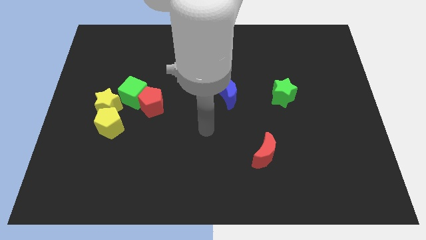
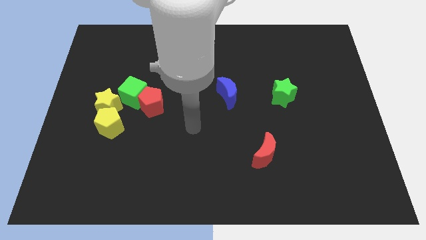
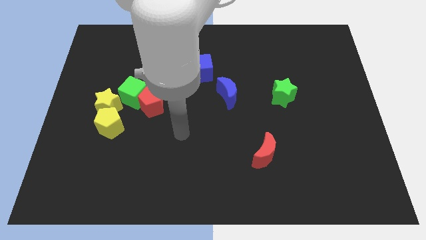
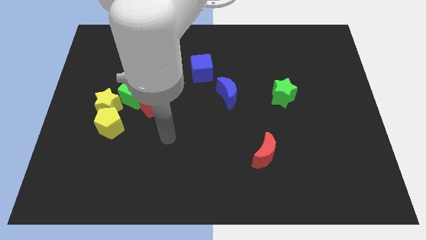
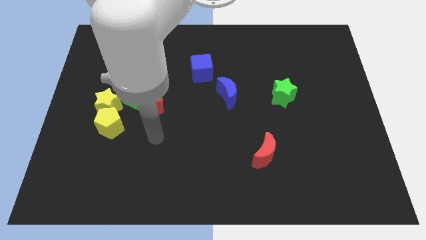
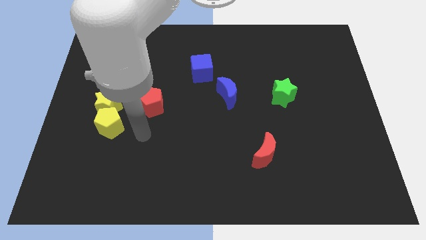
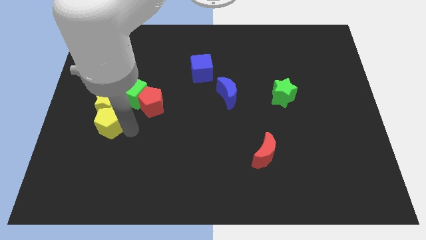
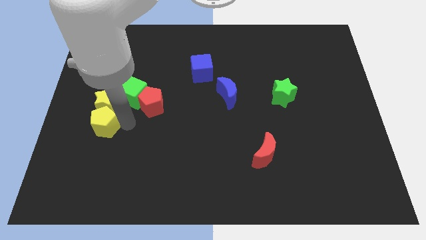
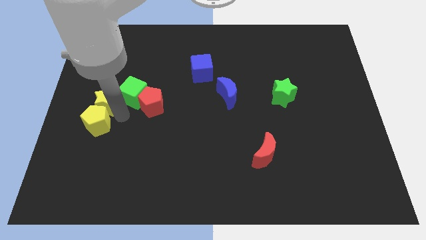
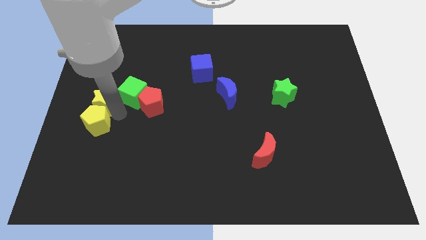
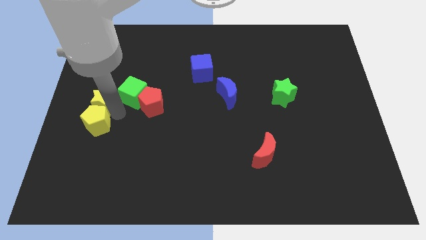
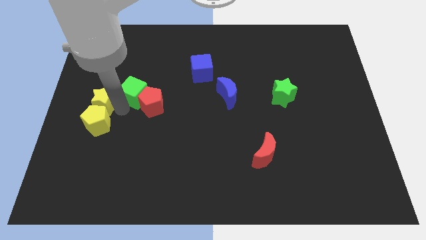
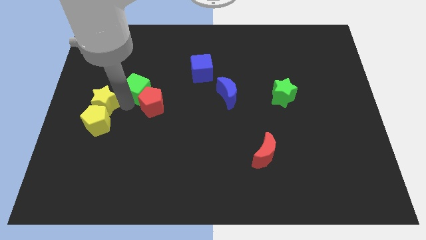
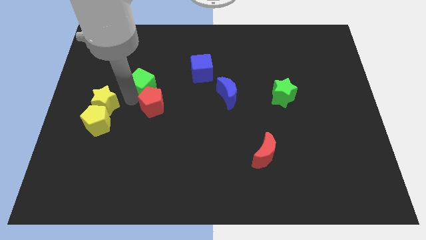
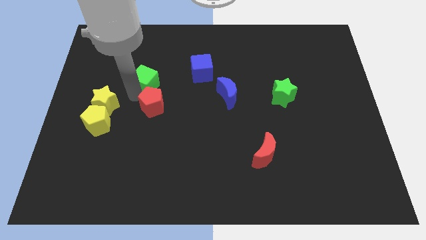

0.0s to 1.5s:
pull the green cube apart from the group

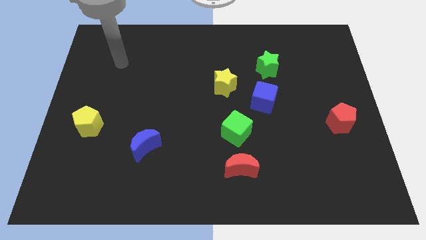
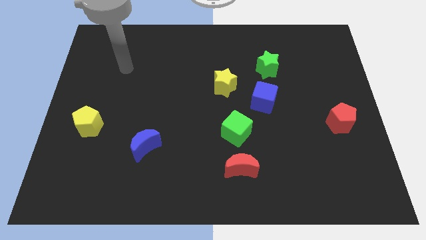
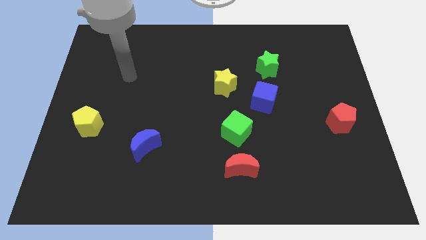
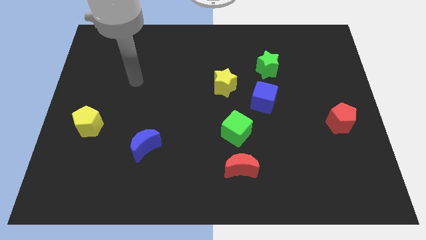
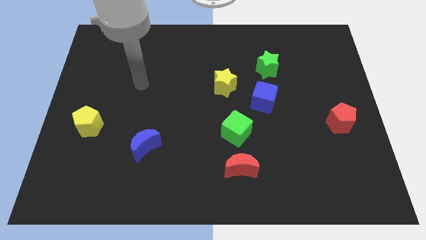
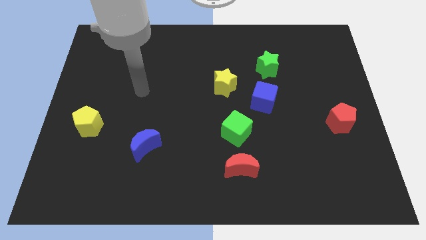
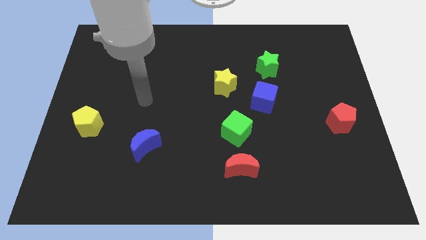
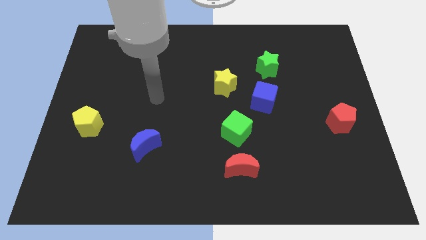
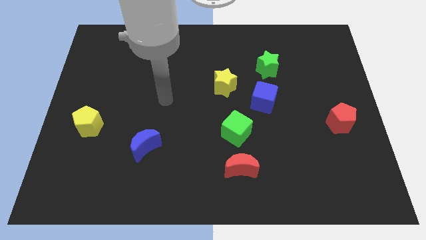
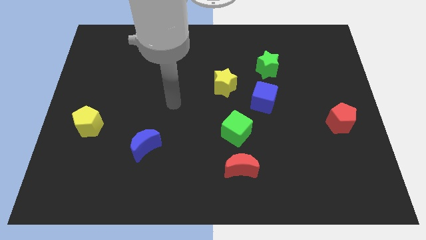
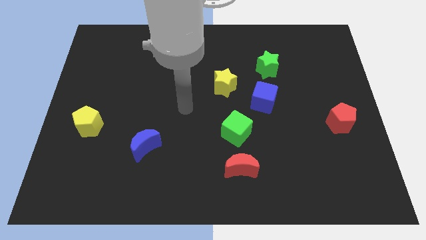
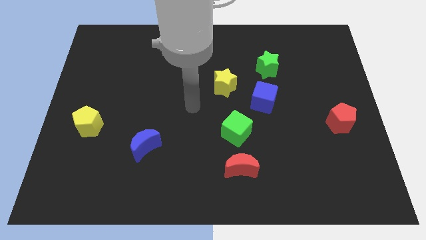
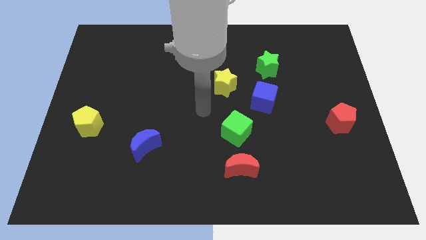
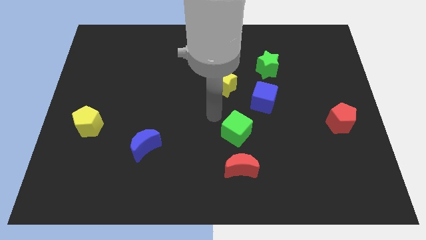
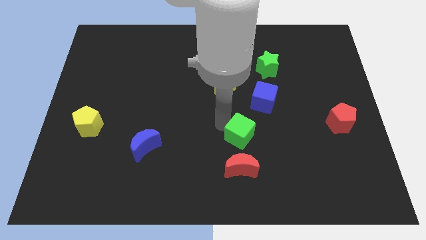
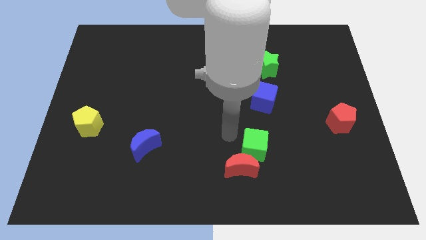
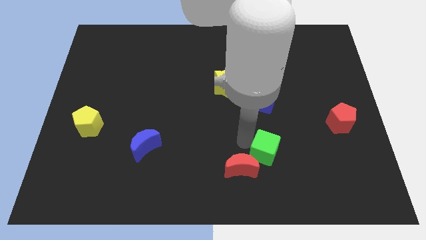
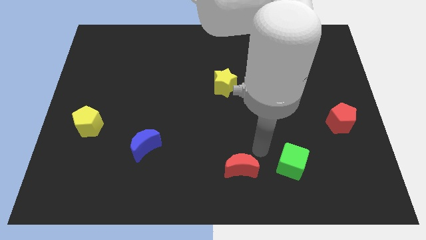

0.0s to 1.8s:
move the red moon away from the green cube

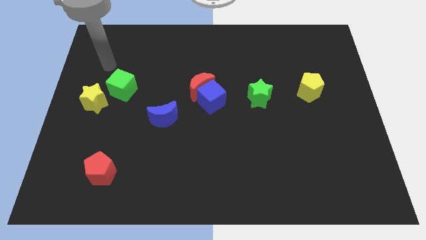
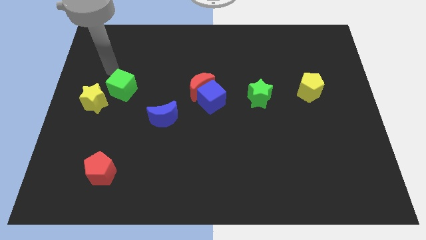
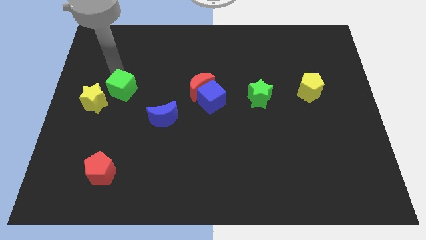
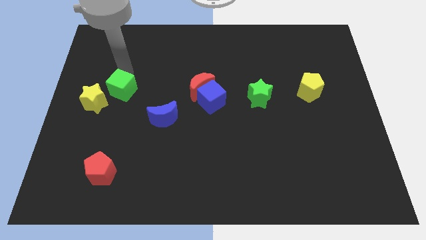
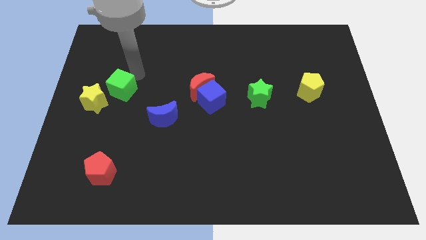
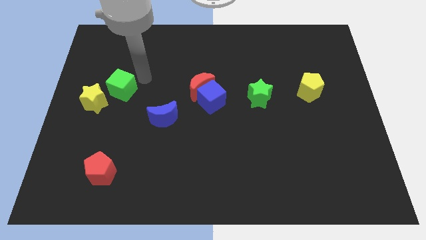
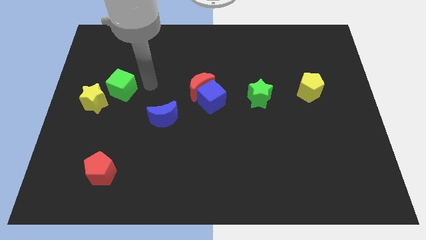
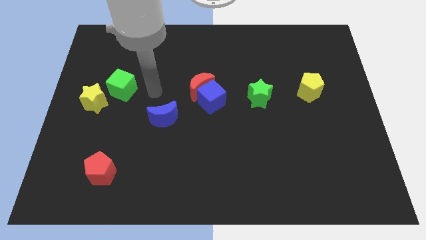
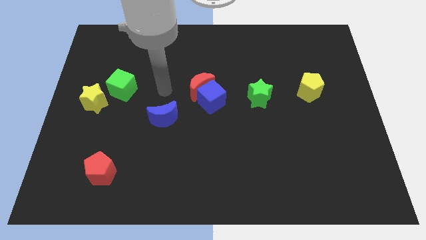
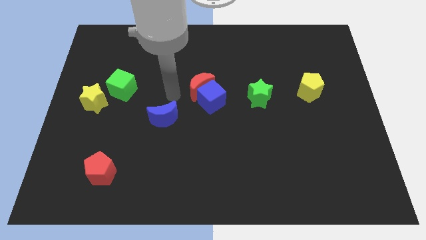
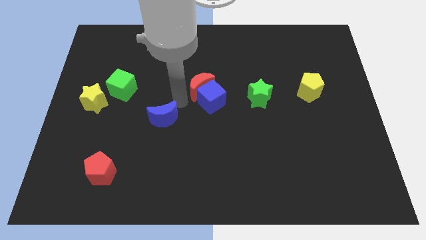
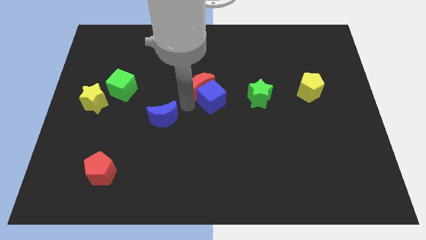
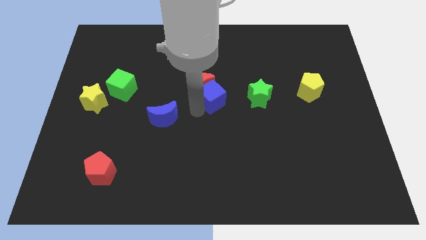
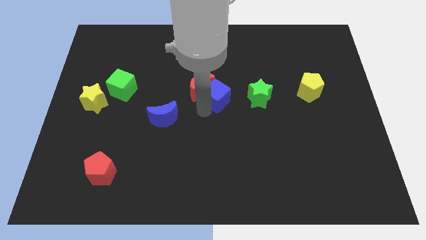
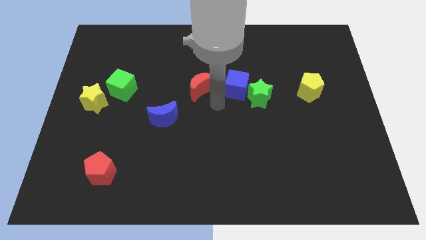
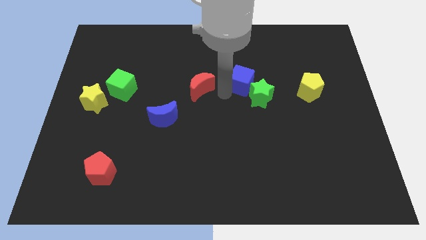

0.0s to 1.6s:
pull the red moon apart from the blue cube

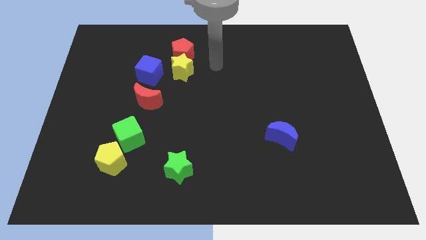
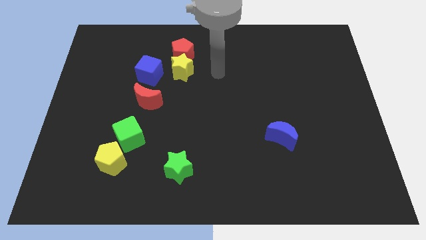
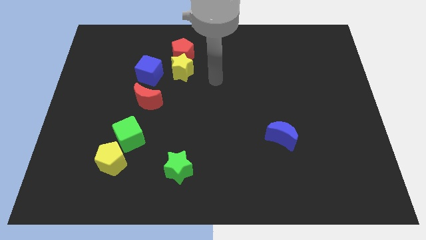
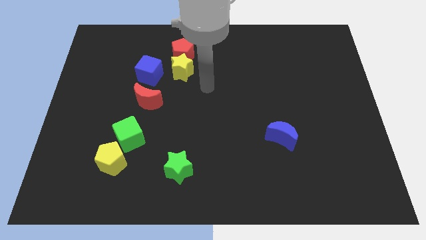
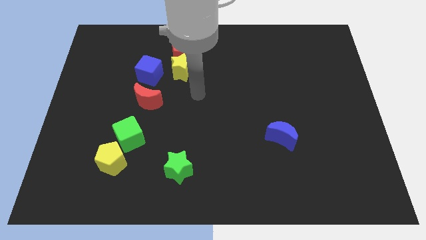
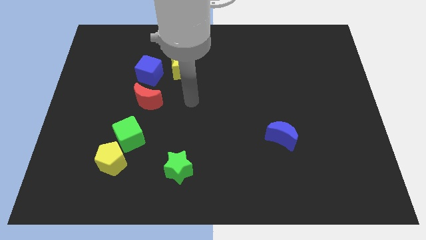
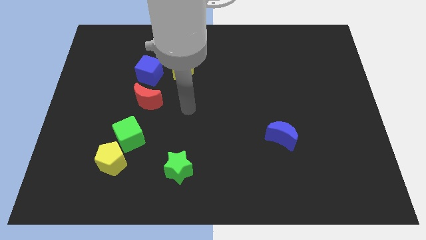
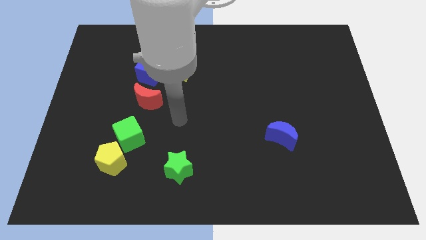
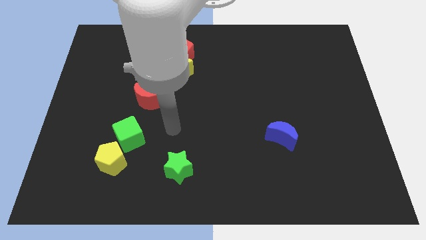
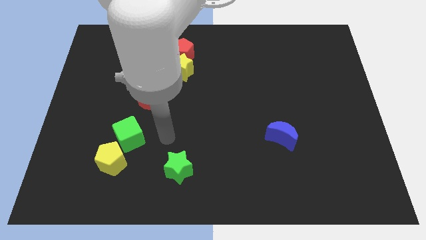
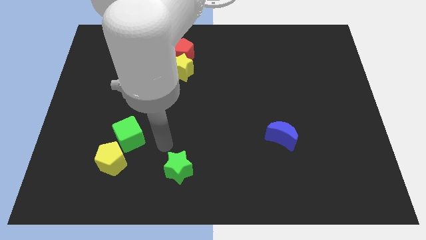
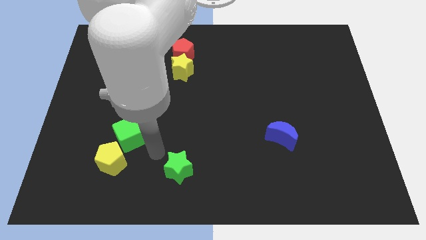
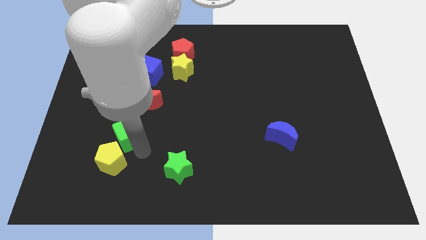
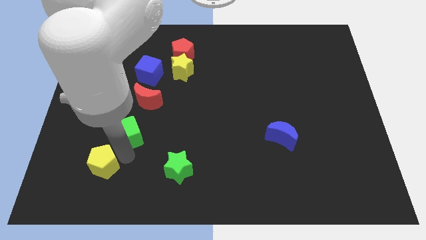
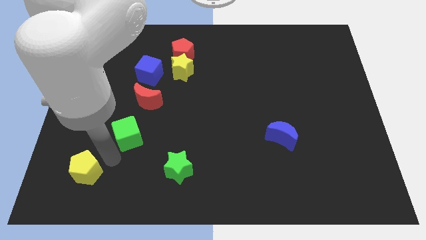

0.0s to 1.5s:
separate the green cube from the yellow pentagon

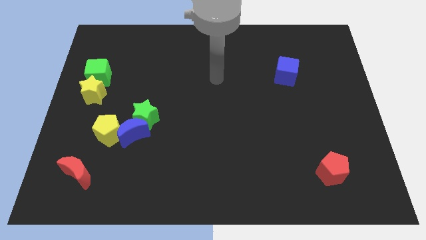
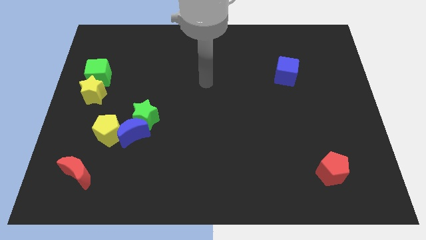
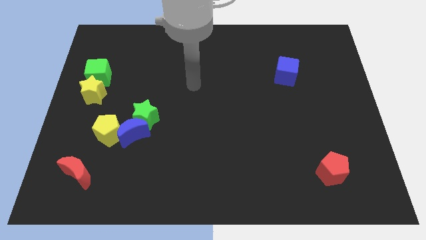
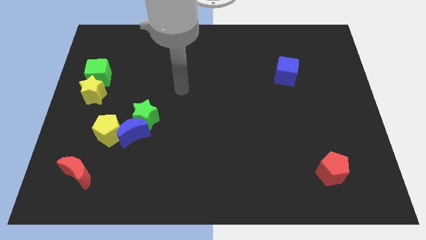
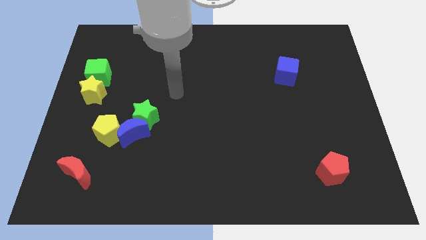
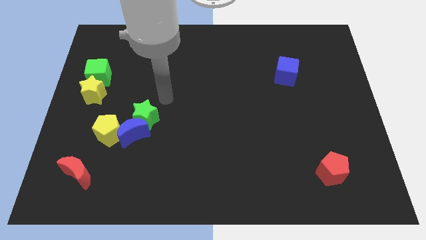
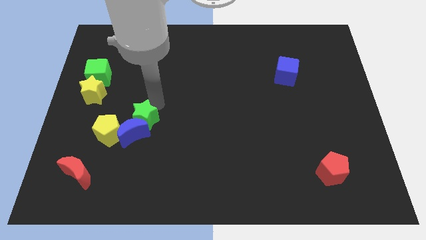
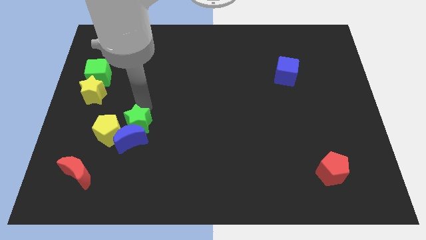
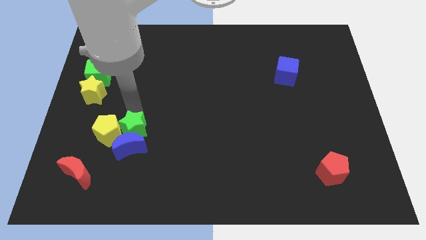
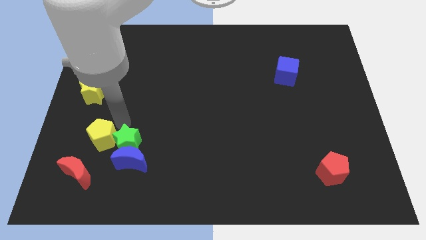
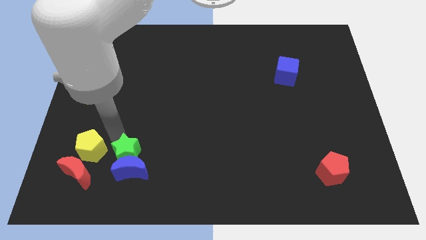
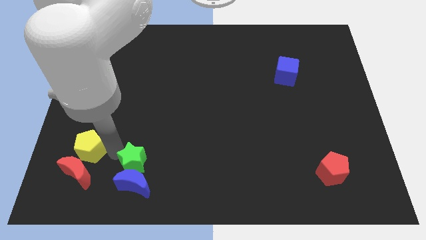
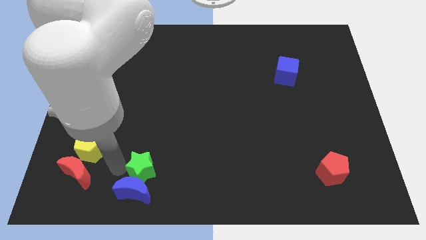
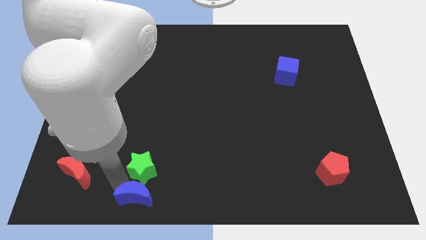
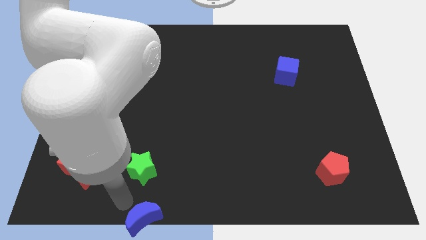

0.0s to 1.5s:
move the blue moon away from the green star and yellow pentagon

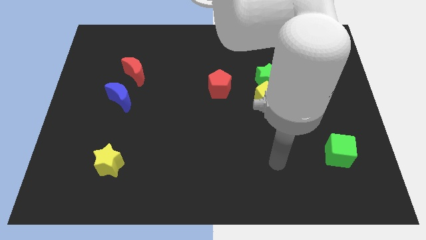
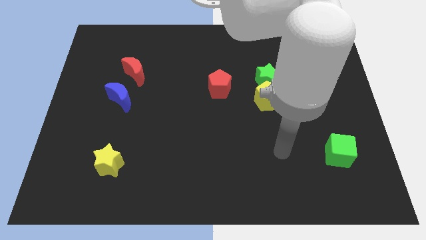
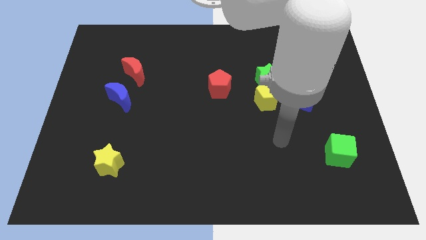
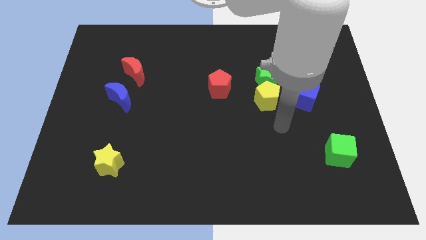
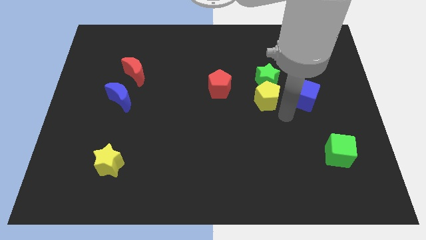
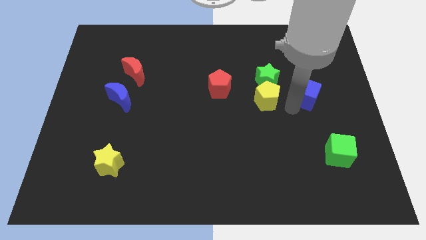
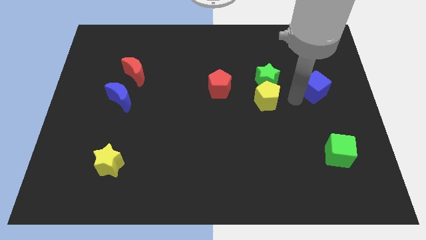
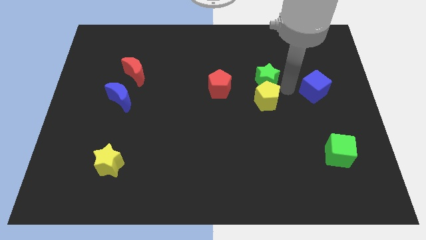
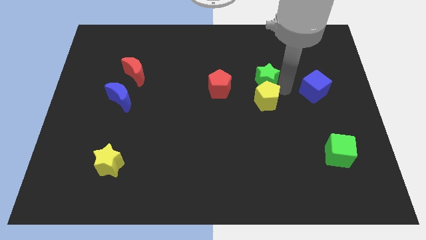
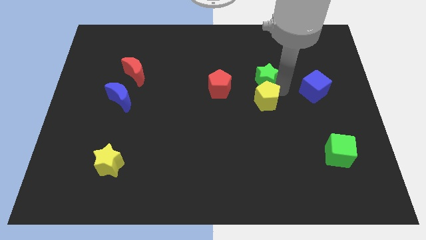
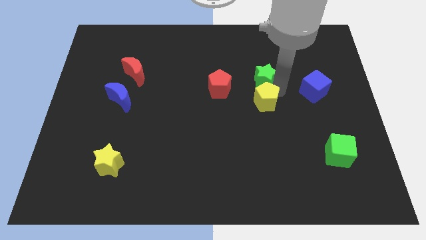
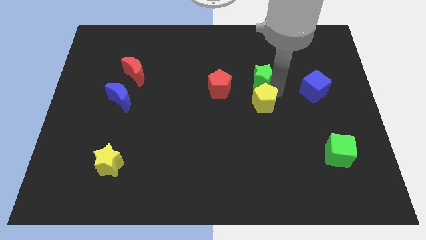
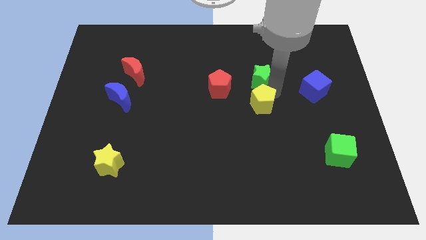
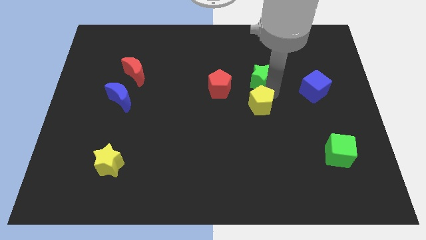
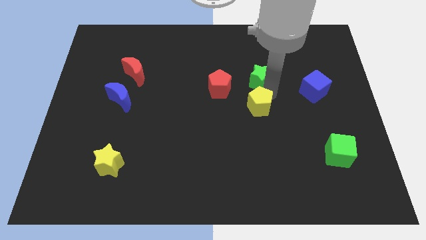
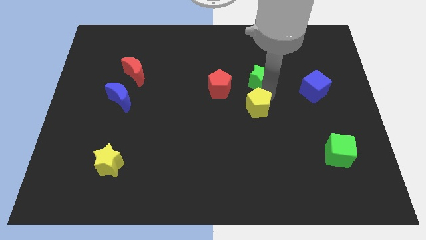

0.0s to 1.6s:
separate the yellow pentagon from the green star and blue cube
